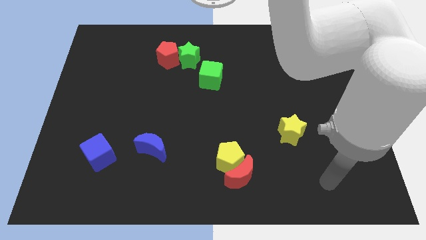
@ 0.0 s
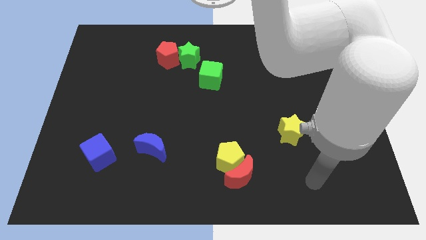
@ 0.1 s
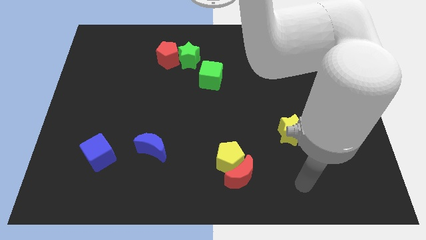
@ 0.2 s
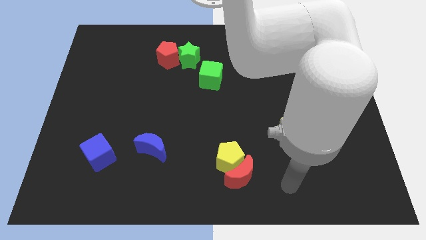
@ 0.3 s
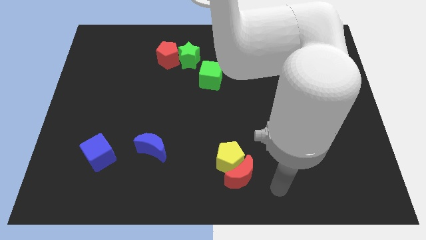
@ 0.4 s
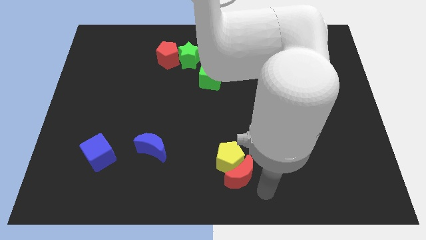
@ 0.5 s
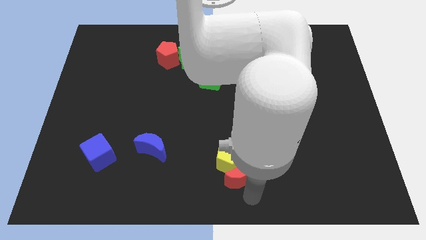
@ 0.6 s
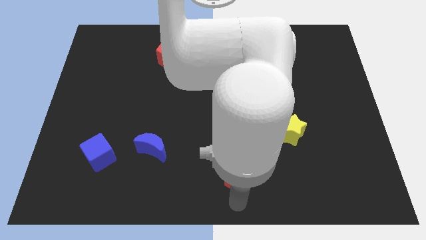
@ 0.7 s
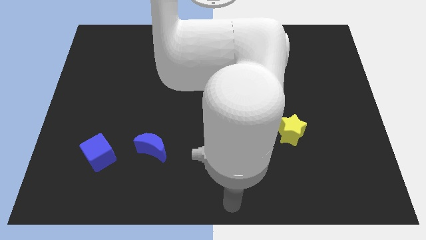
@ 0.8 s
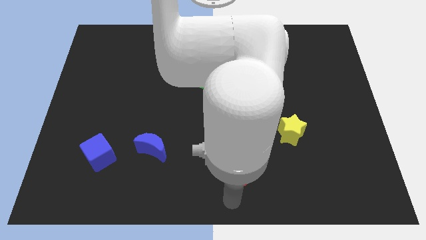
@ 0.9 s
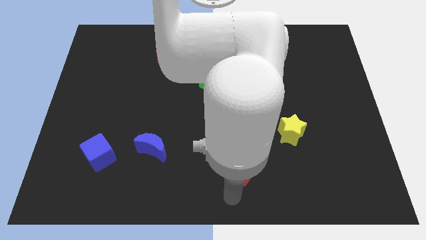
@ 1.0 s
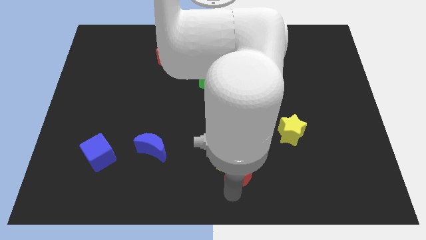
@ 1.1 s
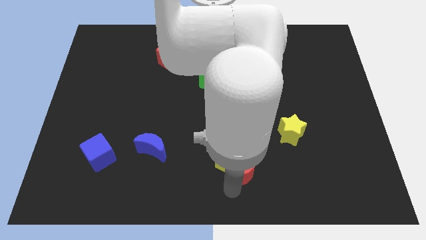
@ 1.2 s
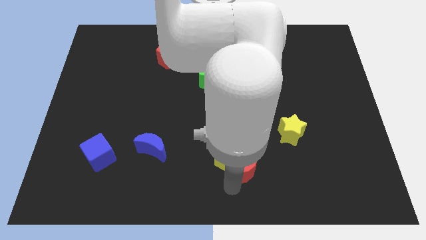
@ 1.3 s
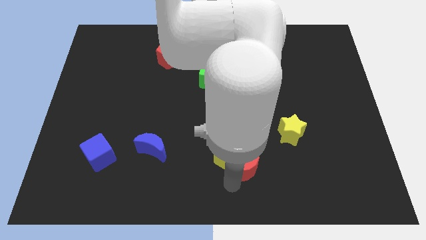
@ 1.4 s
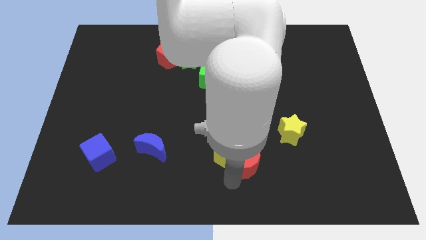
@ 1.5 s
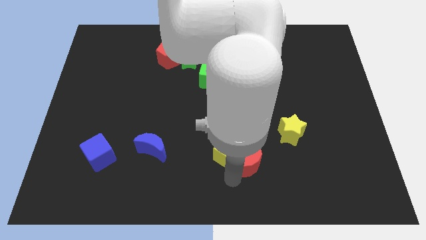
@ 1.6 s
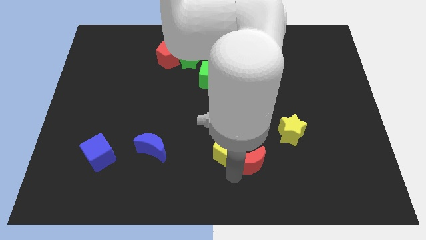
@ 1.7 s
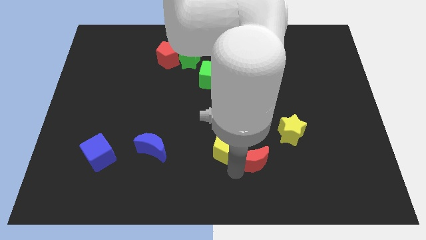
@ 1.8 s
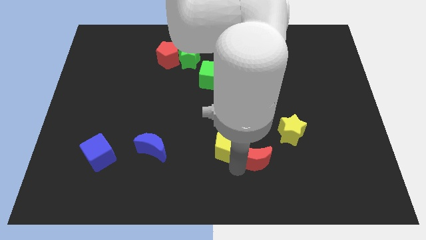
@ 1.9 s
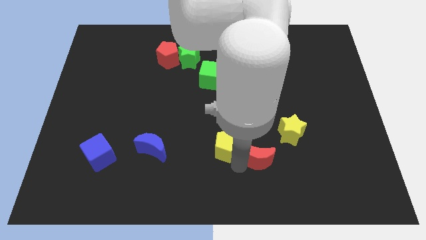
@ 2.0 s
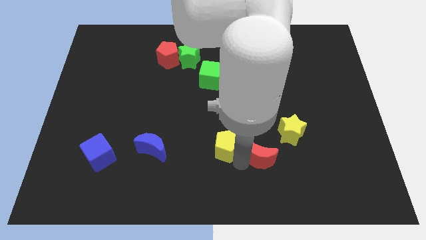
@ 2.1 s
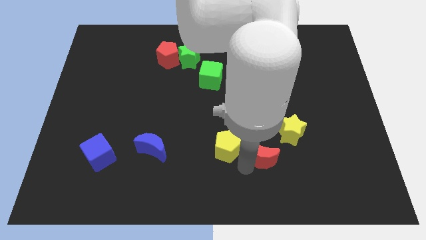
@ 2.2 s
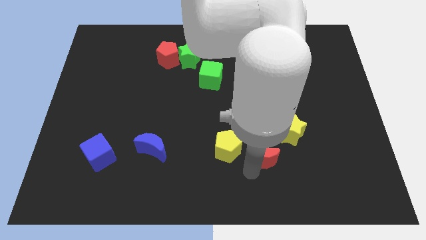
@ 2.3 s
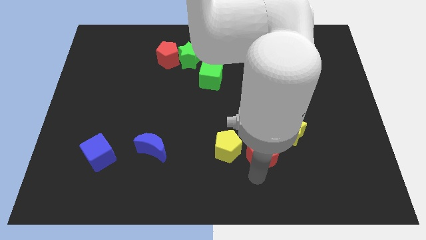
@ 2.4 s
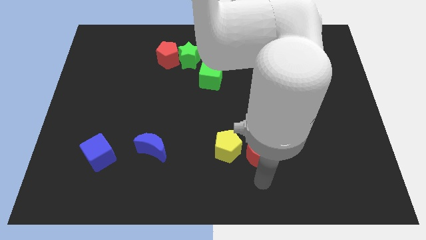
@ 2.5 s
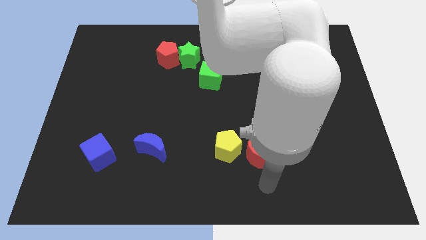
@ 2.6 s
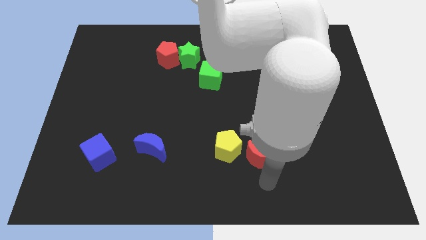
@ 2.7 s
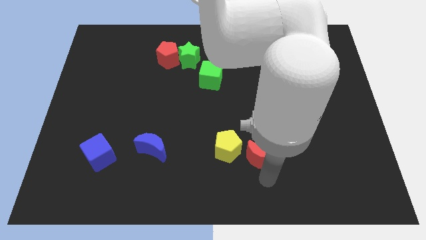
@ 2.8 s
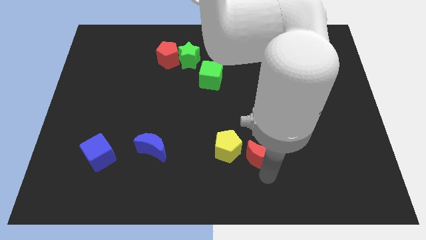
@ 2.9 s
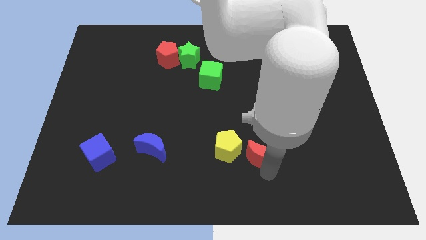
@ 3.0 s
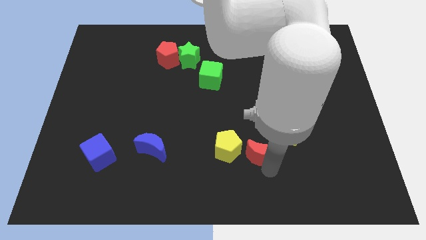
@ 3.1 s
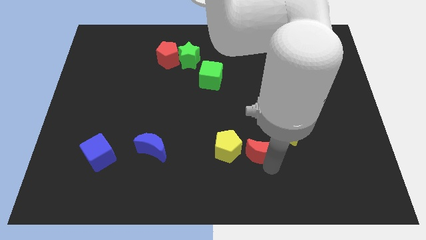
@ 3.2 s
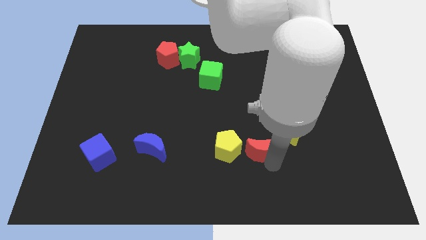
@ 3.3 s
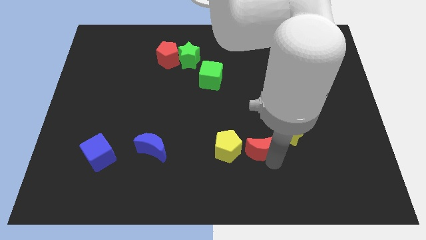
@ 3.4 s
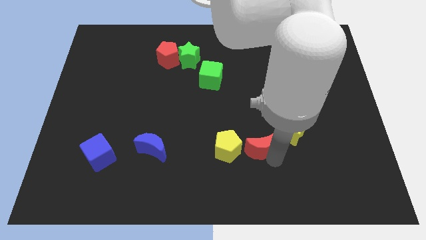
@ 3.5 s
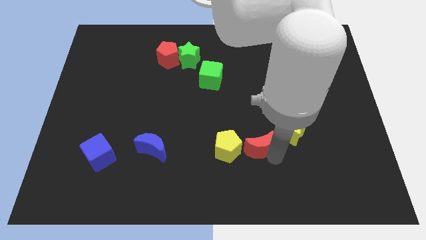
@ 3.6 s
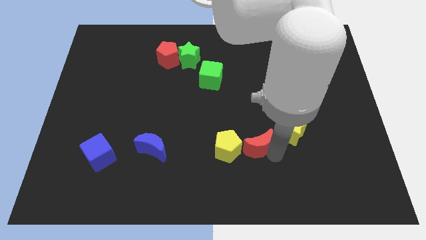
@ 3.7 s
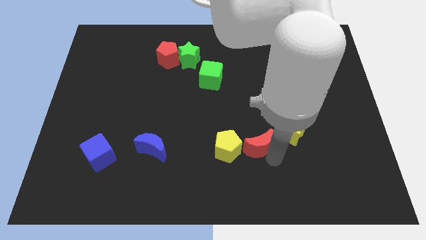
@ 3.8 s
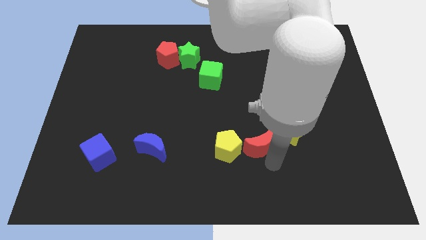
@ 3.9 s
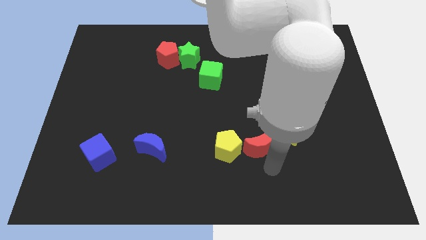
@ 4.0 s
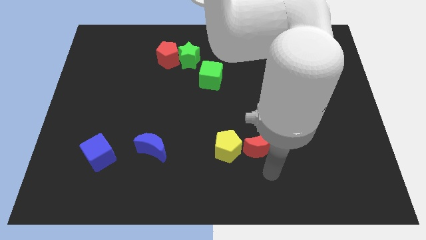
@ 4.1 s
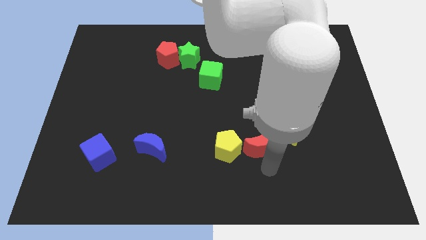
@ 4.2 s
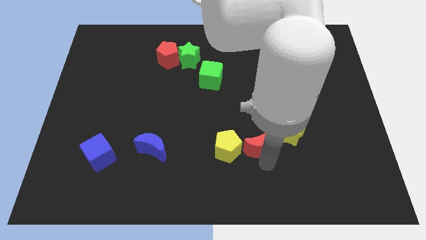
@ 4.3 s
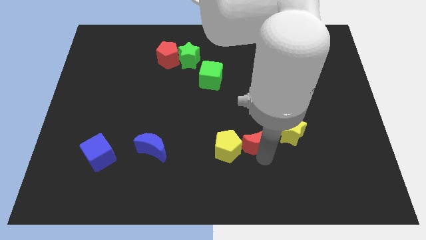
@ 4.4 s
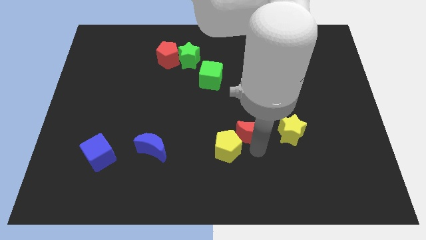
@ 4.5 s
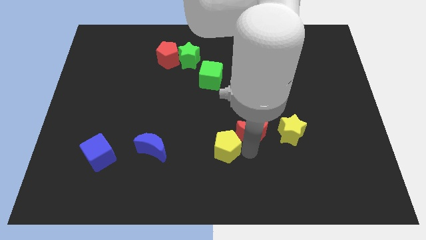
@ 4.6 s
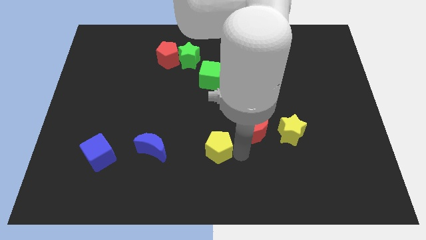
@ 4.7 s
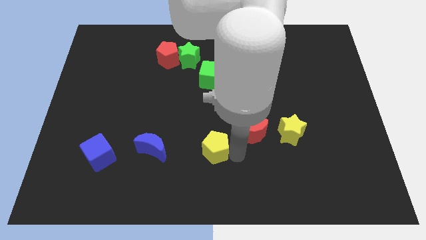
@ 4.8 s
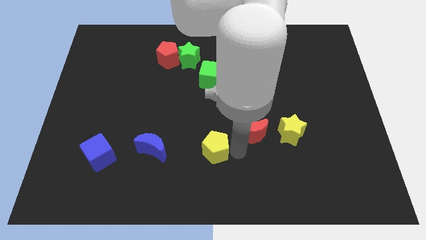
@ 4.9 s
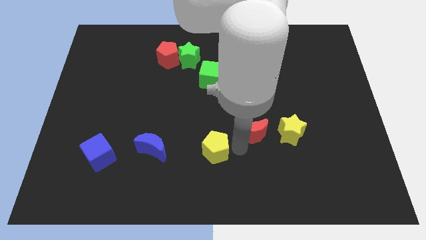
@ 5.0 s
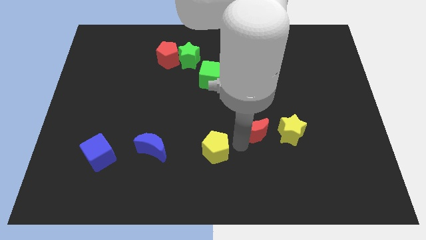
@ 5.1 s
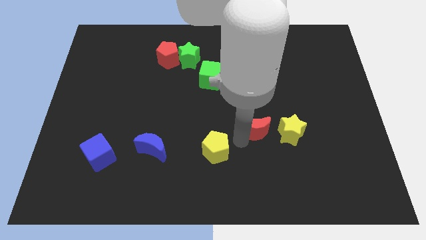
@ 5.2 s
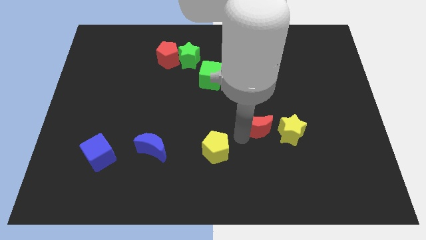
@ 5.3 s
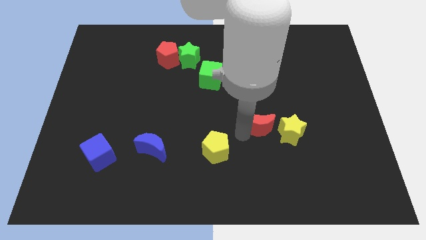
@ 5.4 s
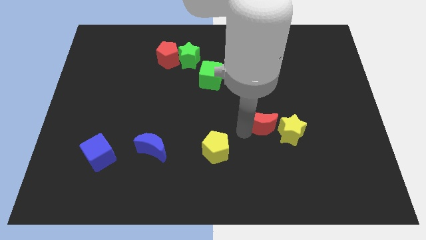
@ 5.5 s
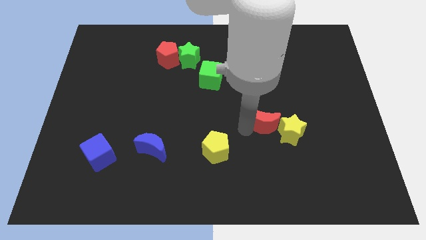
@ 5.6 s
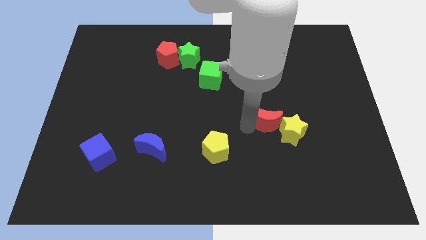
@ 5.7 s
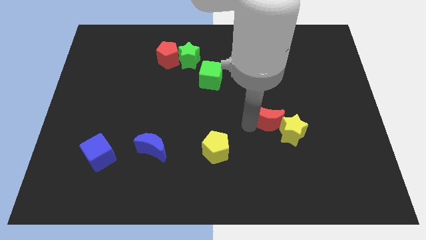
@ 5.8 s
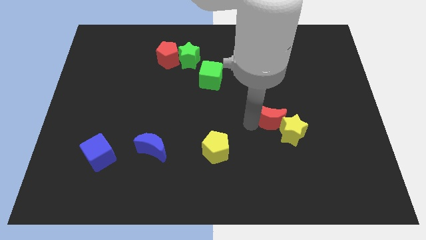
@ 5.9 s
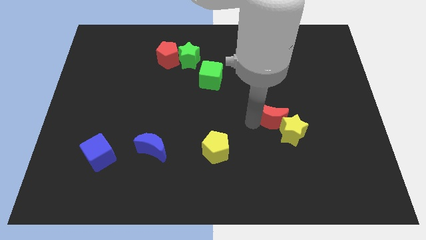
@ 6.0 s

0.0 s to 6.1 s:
slide the red moon to the top side of the yellow star

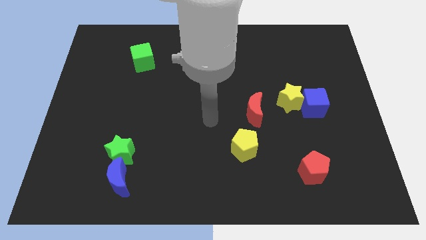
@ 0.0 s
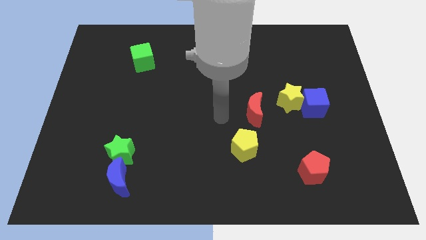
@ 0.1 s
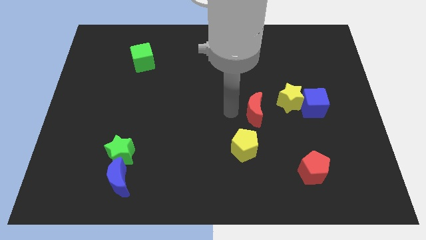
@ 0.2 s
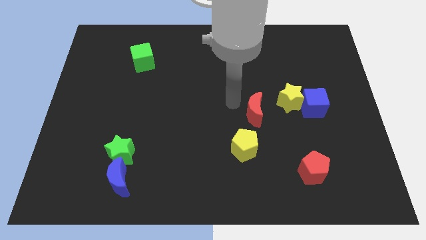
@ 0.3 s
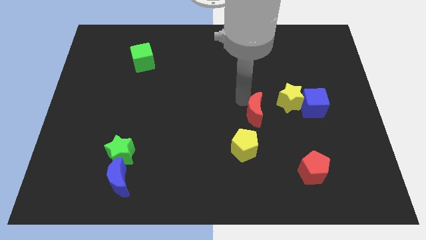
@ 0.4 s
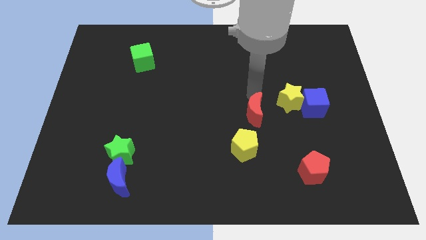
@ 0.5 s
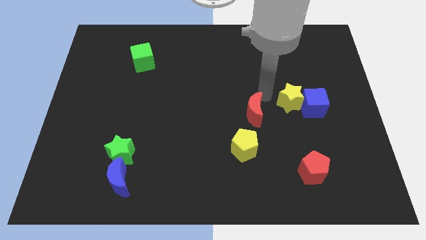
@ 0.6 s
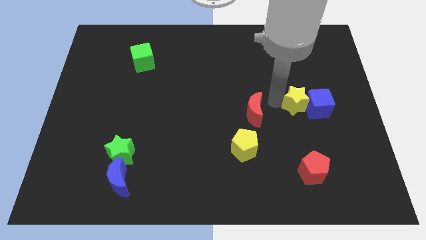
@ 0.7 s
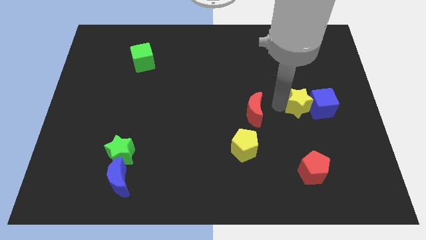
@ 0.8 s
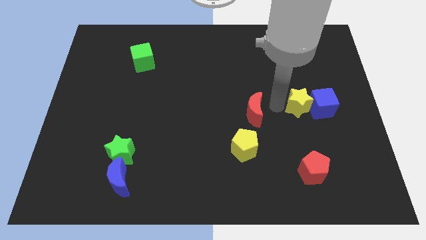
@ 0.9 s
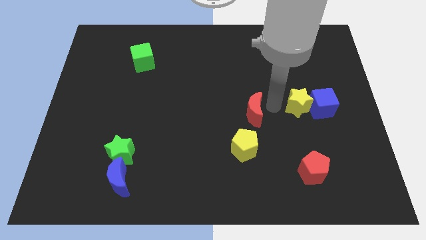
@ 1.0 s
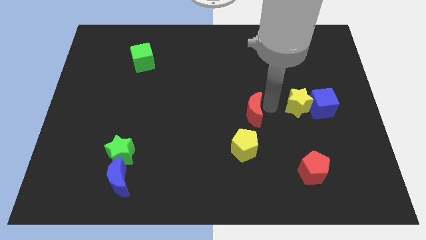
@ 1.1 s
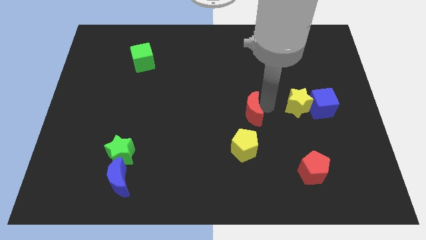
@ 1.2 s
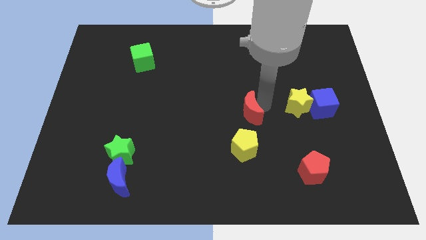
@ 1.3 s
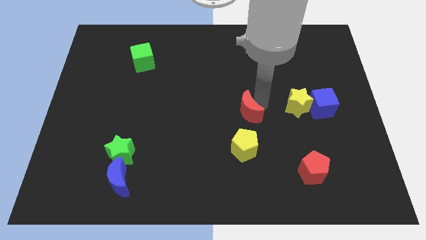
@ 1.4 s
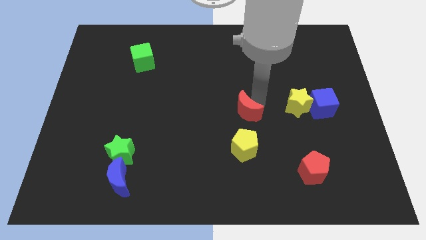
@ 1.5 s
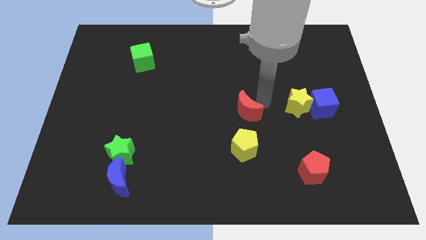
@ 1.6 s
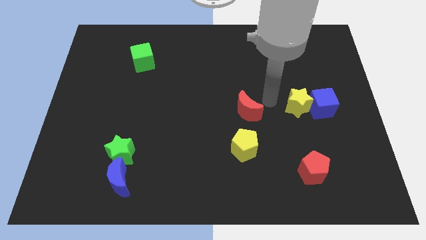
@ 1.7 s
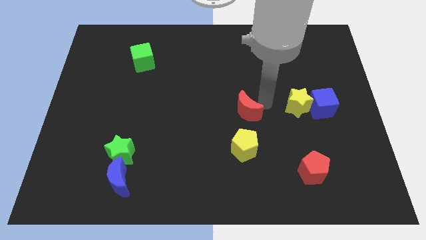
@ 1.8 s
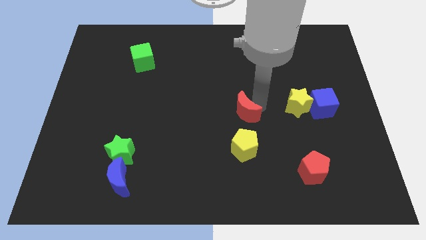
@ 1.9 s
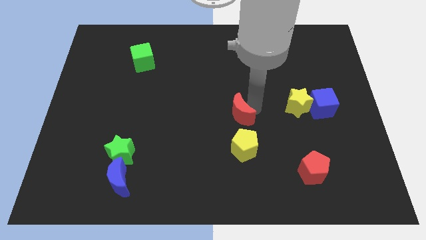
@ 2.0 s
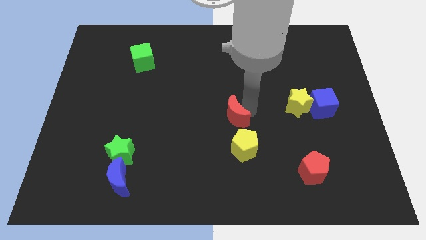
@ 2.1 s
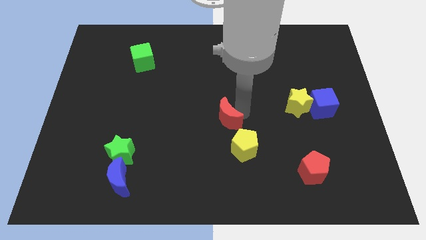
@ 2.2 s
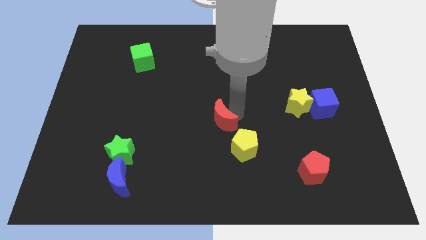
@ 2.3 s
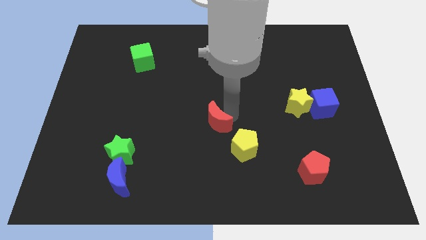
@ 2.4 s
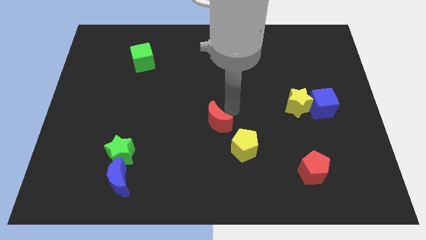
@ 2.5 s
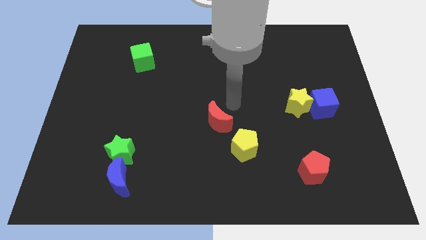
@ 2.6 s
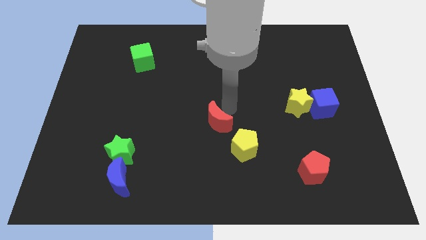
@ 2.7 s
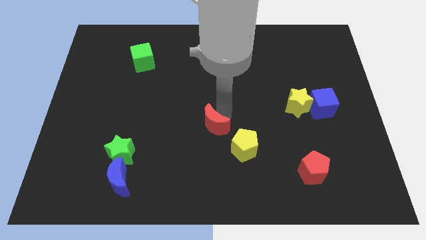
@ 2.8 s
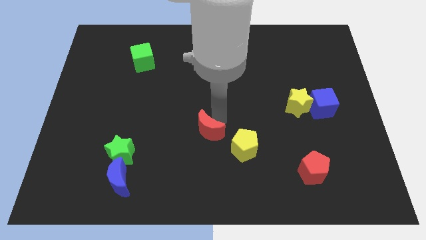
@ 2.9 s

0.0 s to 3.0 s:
push the red moon to the left of the yellow pentagon
